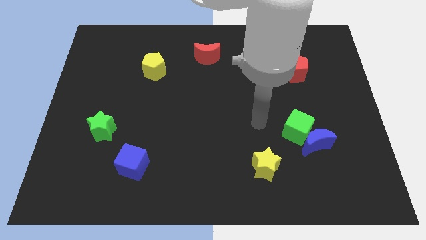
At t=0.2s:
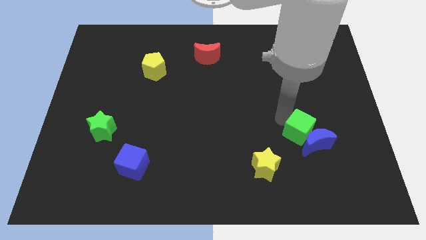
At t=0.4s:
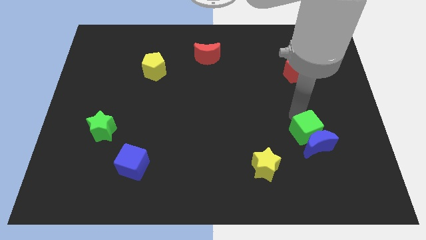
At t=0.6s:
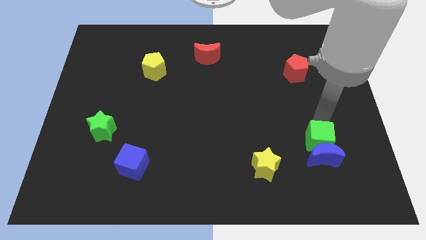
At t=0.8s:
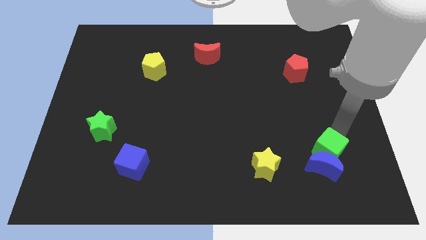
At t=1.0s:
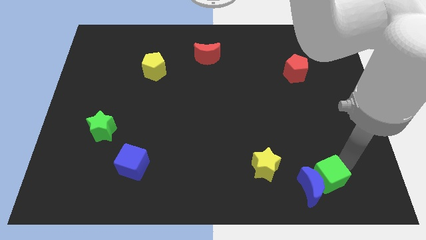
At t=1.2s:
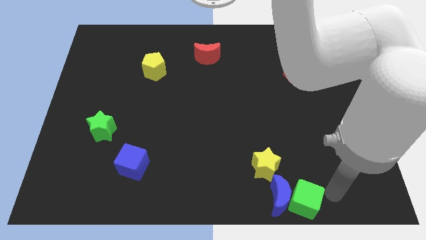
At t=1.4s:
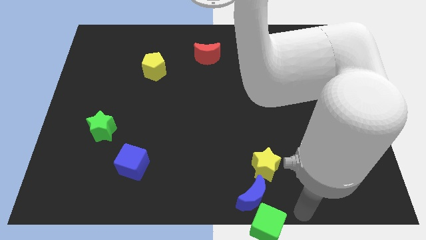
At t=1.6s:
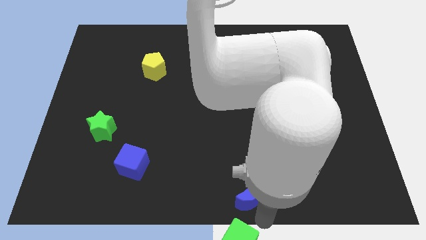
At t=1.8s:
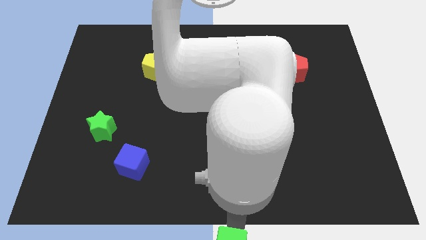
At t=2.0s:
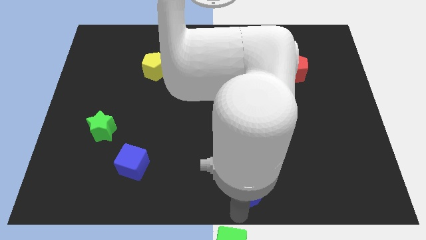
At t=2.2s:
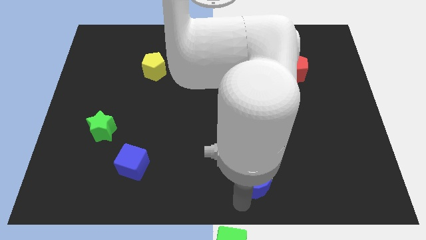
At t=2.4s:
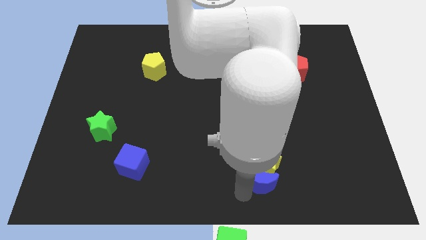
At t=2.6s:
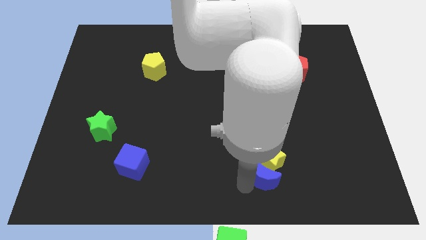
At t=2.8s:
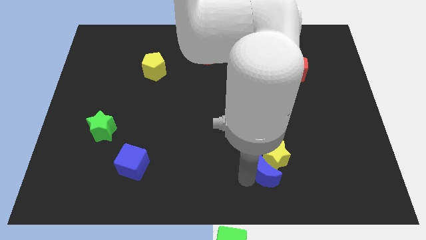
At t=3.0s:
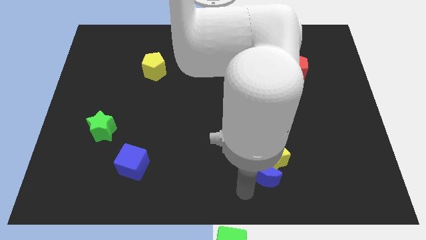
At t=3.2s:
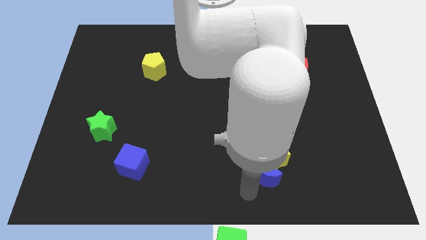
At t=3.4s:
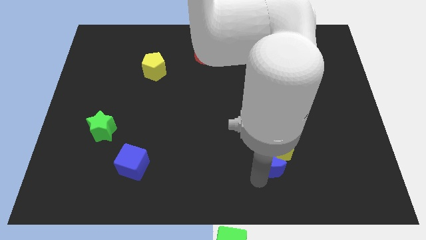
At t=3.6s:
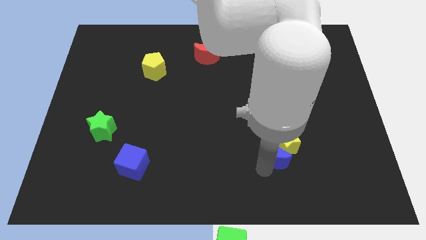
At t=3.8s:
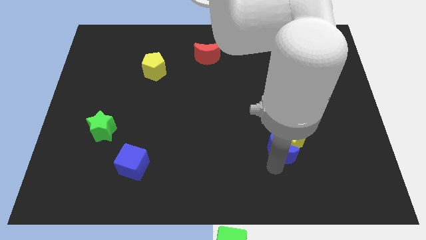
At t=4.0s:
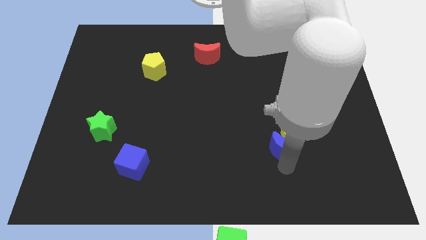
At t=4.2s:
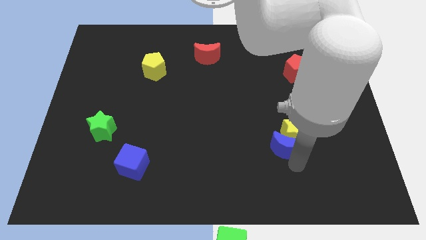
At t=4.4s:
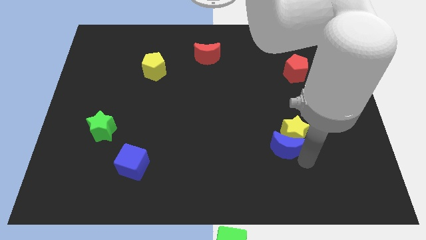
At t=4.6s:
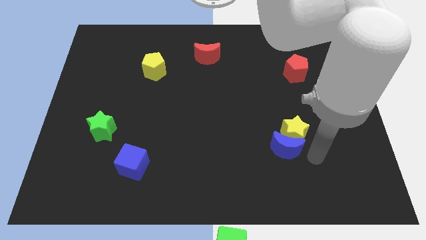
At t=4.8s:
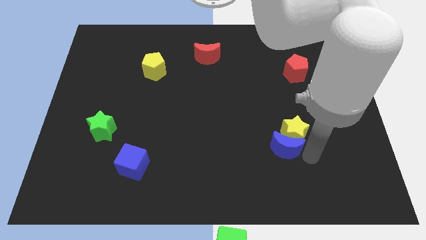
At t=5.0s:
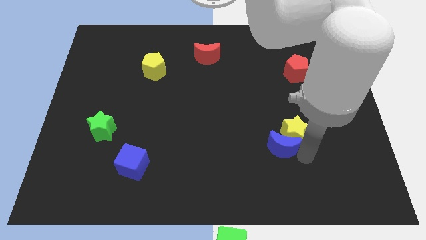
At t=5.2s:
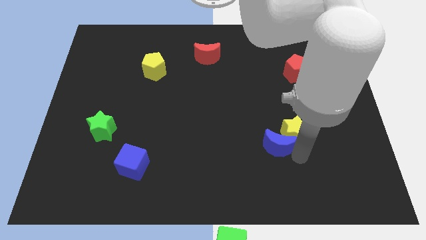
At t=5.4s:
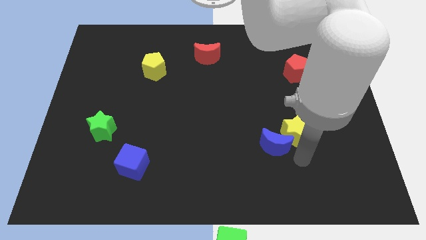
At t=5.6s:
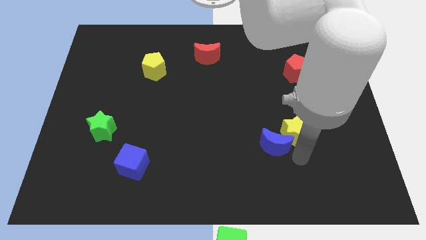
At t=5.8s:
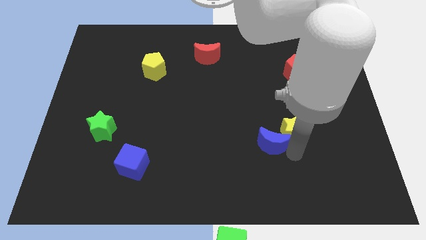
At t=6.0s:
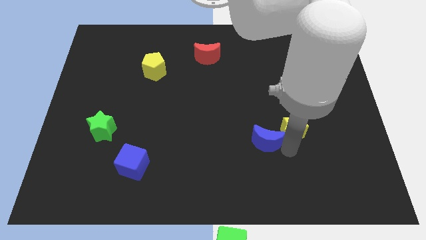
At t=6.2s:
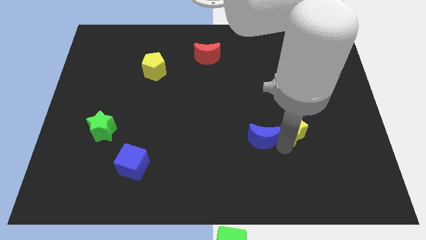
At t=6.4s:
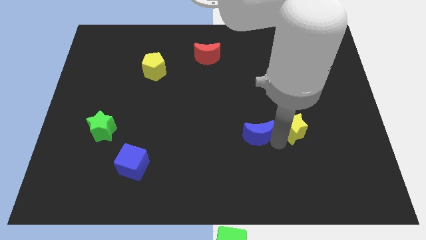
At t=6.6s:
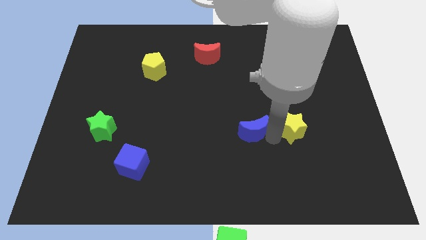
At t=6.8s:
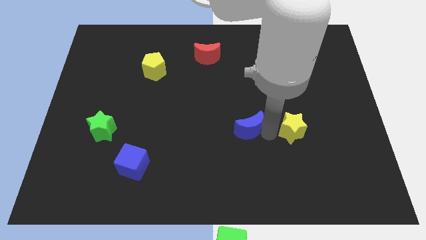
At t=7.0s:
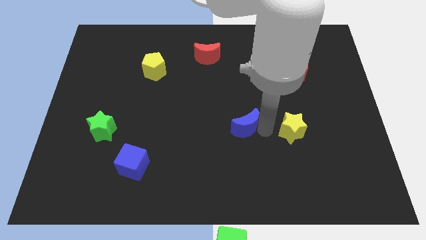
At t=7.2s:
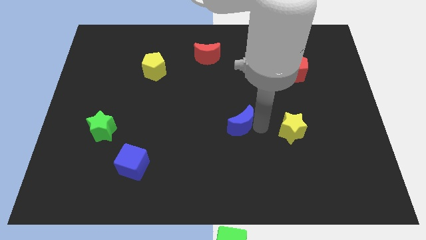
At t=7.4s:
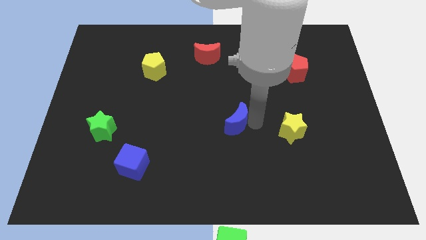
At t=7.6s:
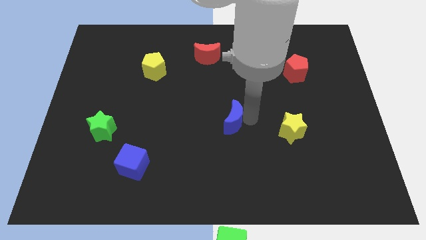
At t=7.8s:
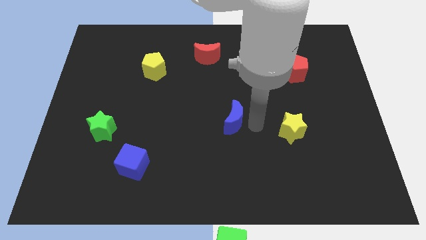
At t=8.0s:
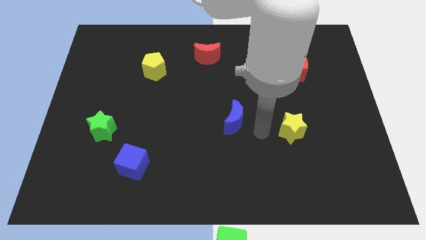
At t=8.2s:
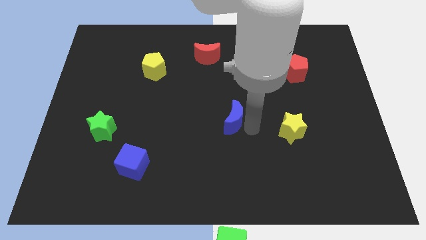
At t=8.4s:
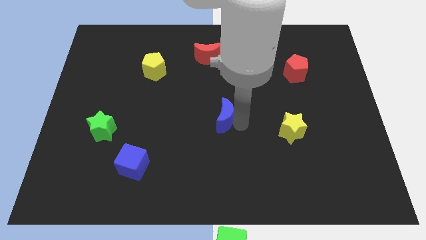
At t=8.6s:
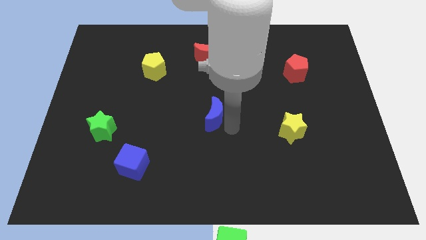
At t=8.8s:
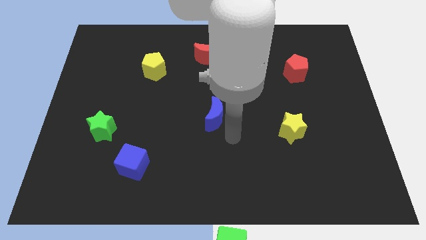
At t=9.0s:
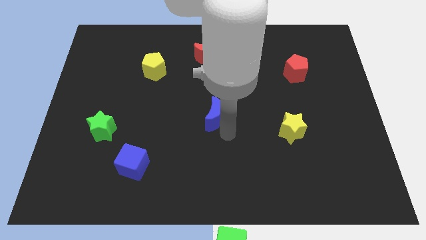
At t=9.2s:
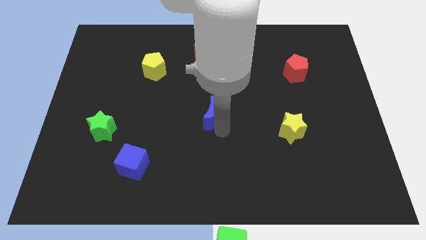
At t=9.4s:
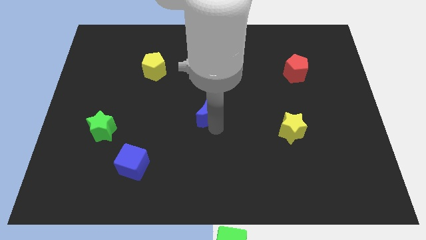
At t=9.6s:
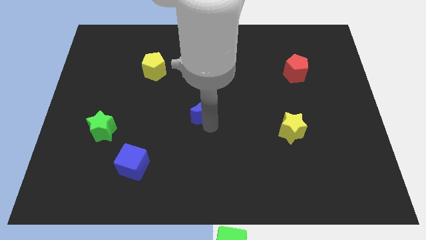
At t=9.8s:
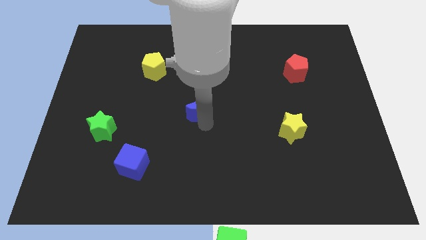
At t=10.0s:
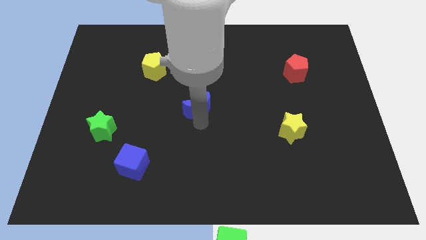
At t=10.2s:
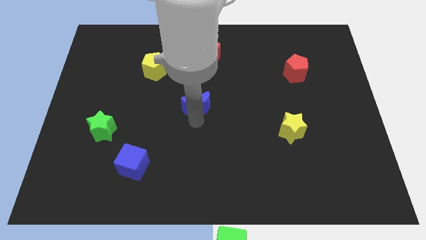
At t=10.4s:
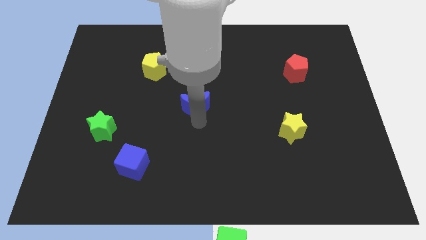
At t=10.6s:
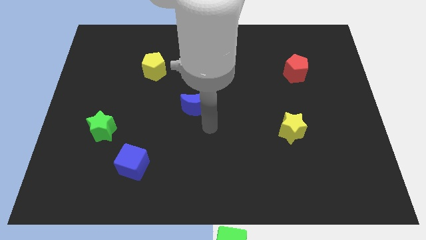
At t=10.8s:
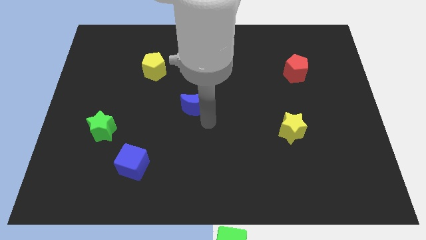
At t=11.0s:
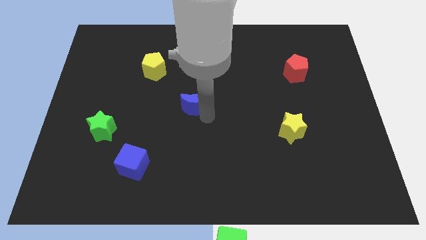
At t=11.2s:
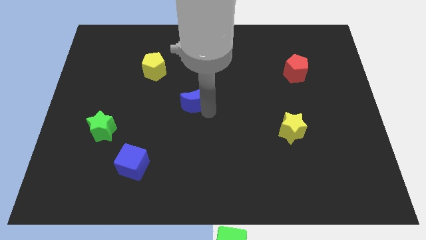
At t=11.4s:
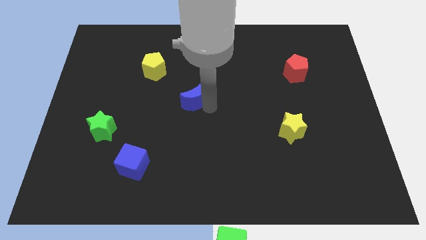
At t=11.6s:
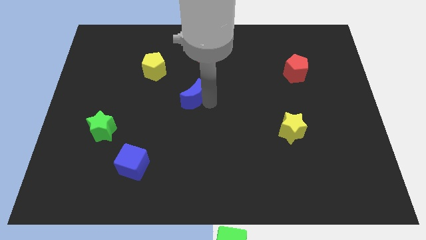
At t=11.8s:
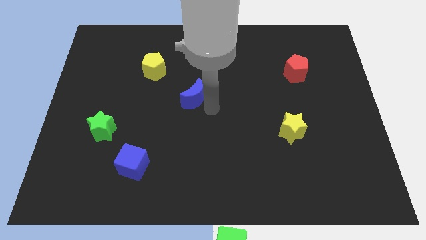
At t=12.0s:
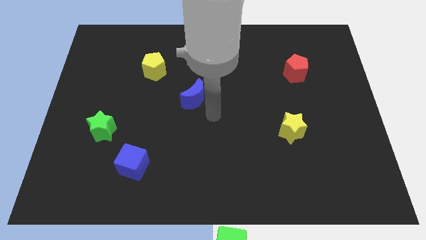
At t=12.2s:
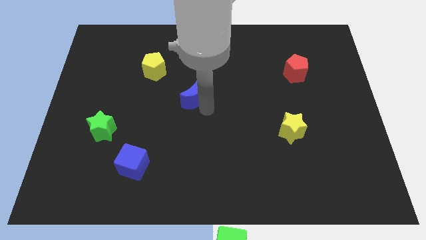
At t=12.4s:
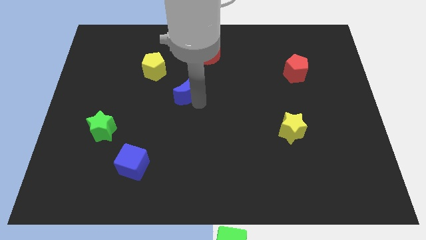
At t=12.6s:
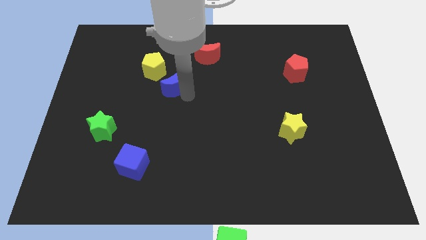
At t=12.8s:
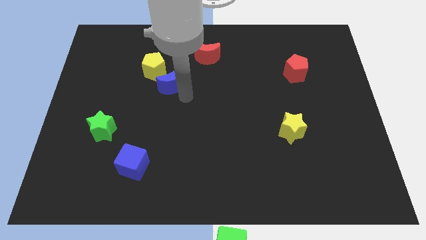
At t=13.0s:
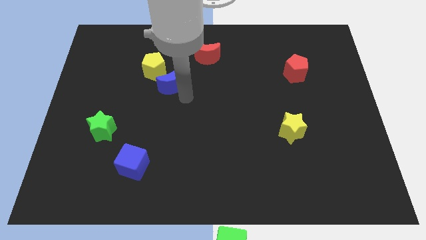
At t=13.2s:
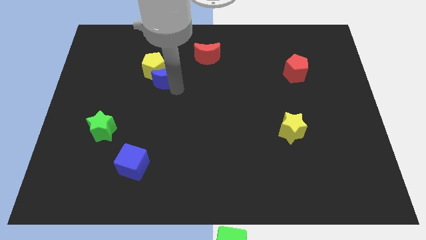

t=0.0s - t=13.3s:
slide the blue moon close to the yellow pentagon
